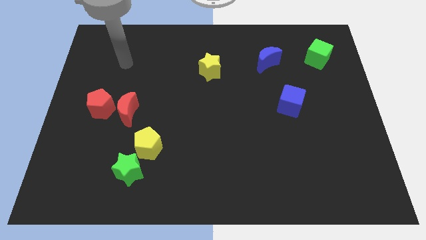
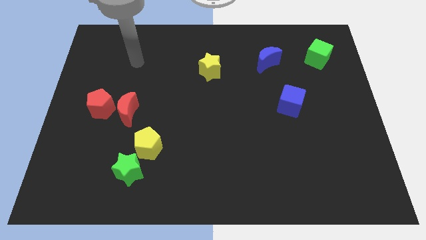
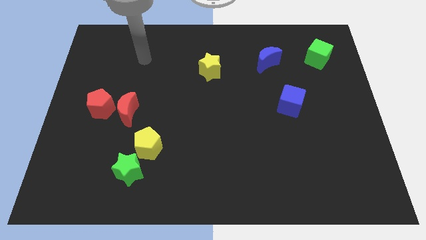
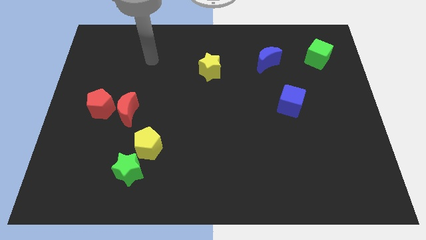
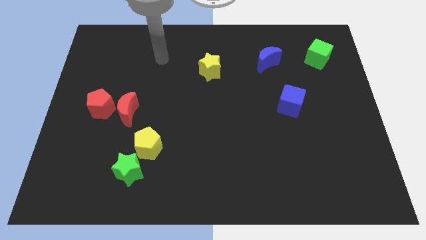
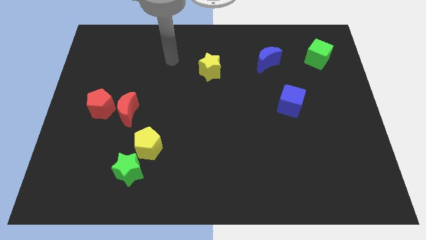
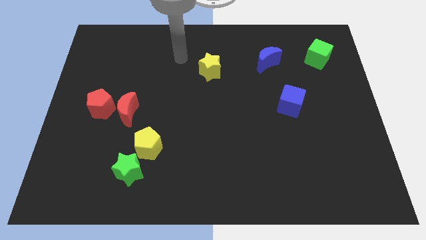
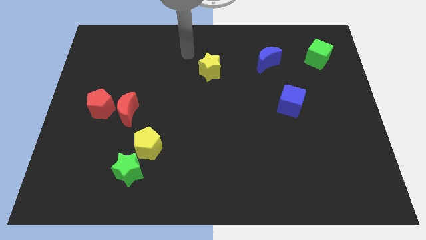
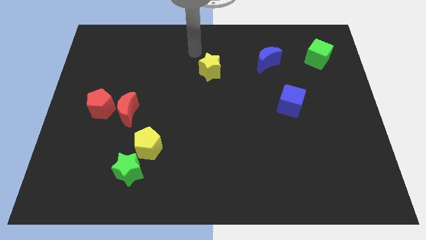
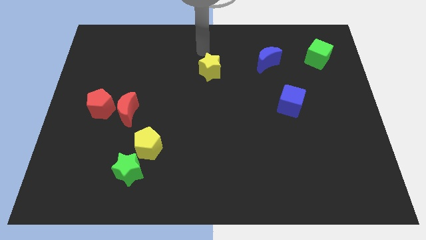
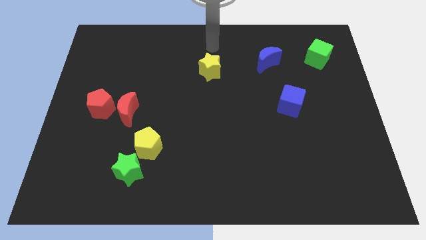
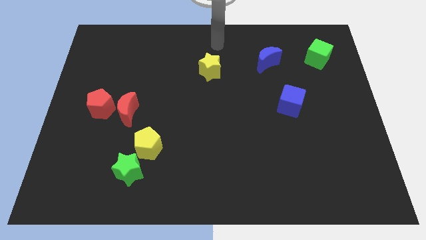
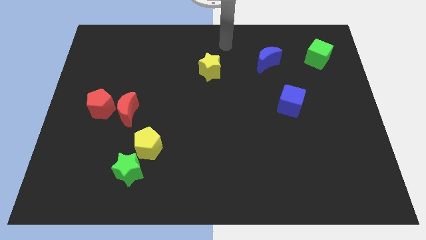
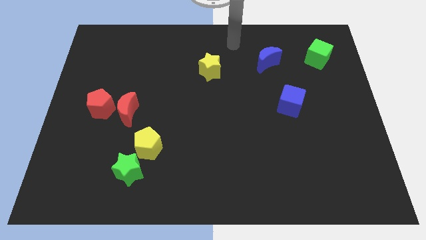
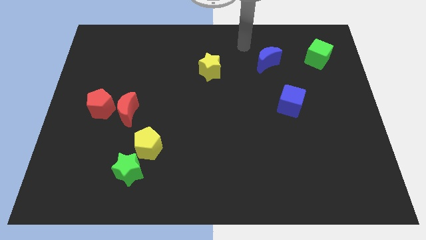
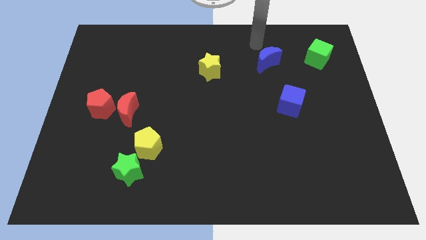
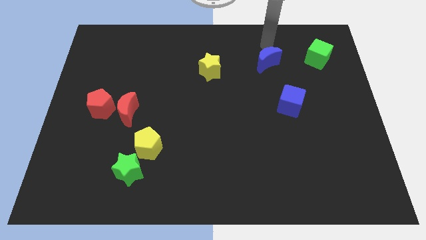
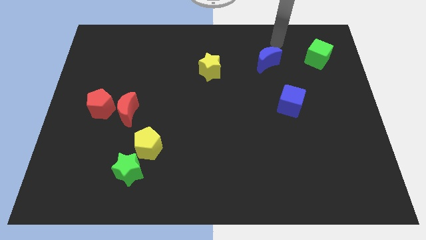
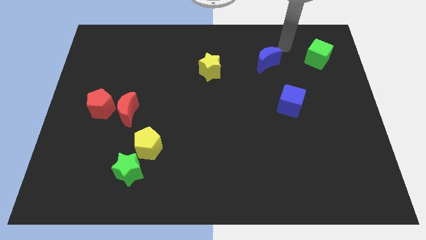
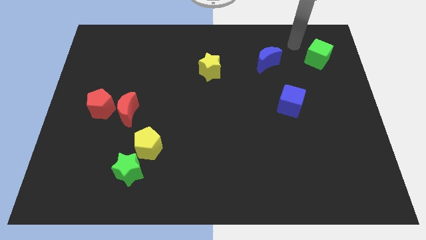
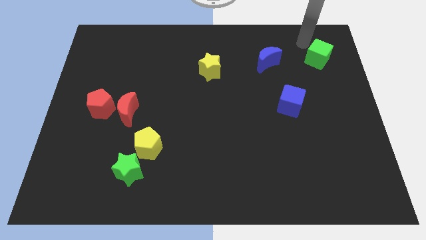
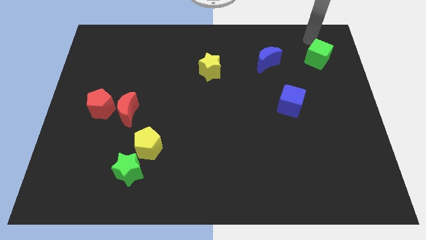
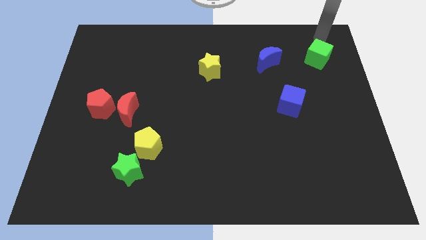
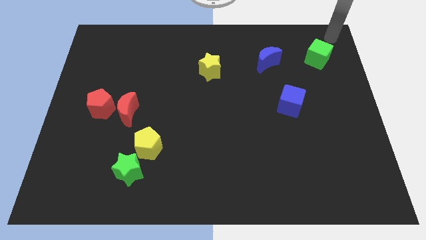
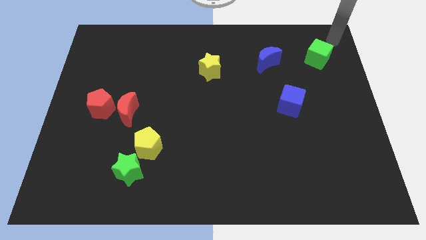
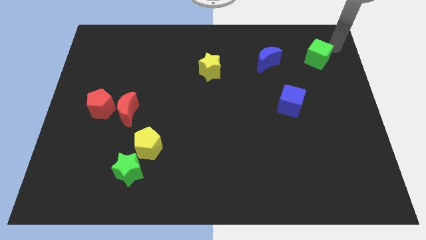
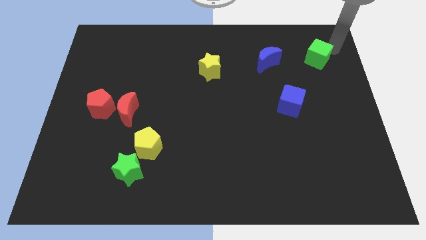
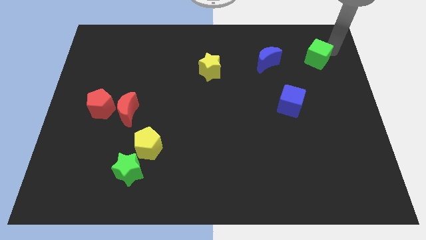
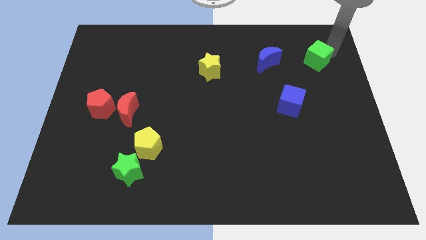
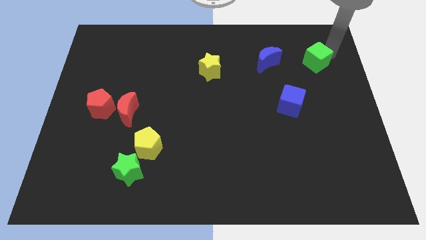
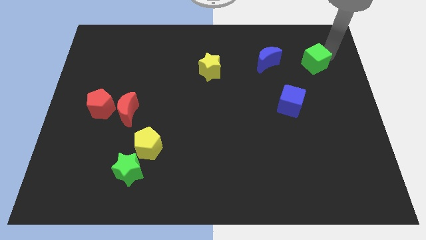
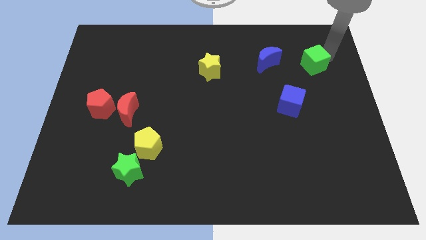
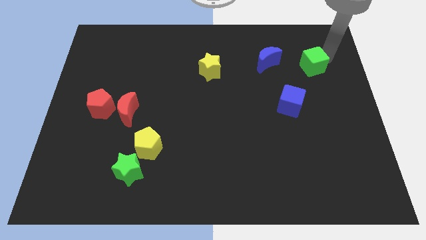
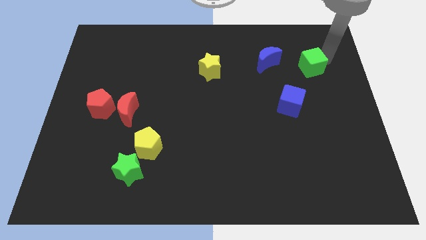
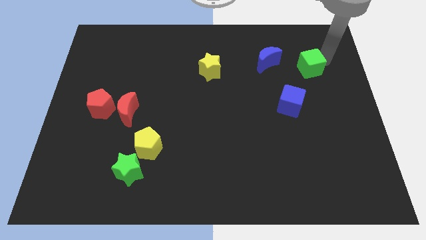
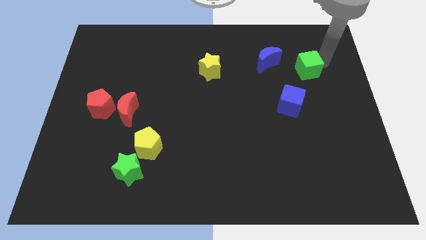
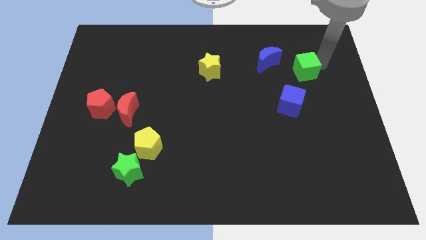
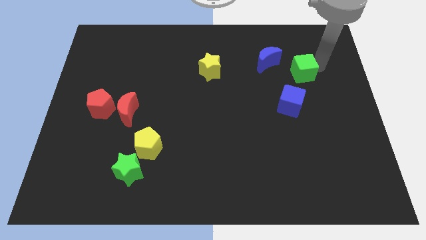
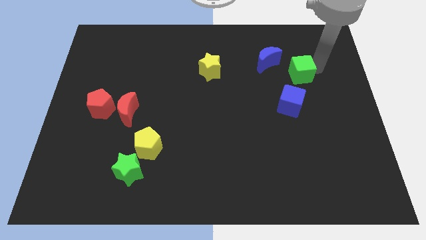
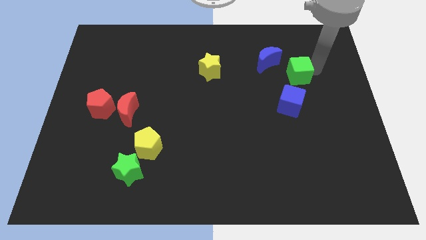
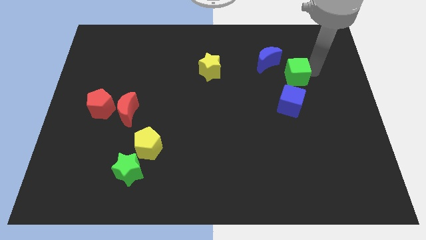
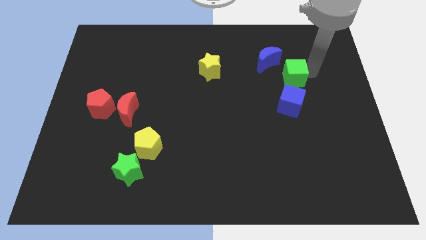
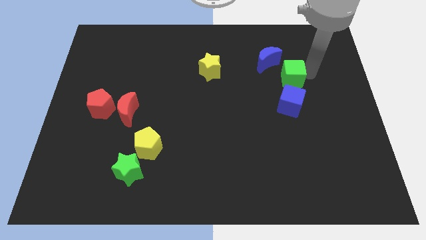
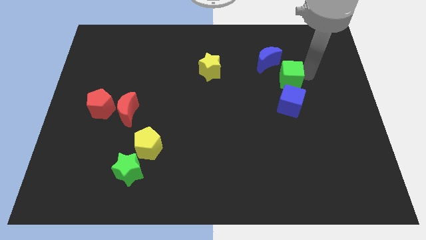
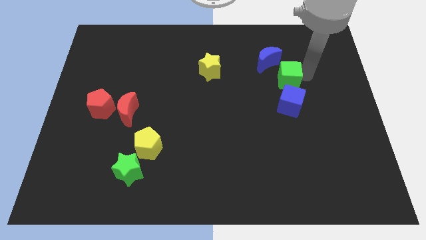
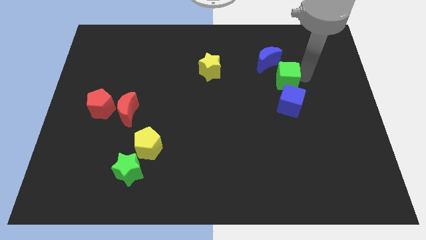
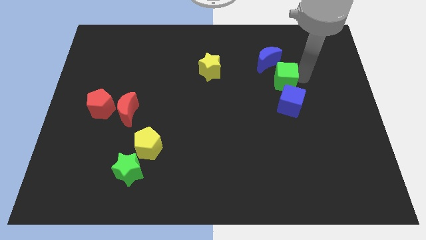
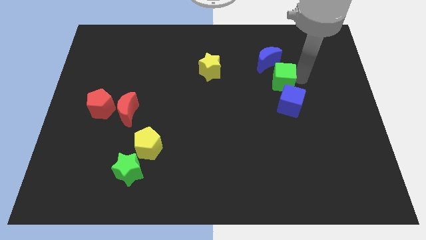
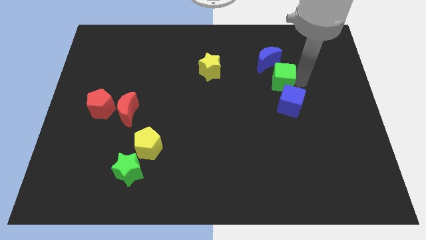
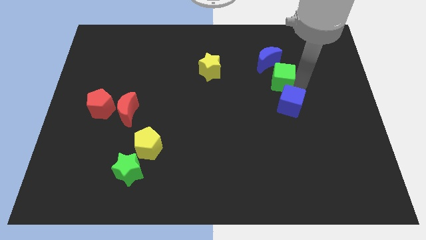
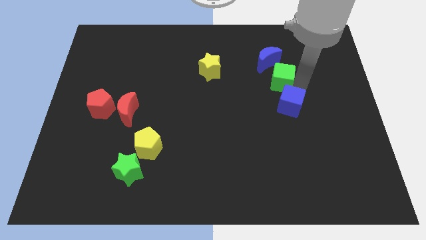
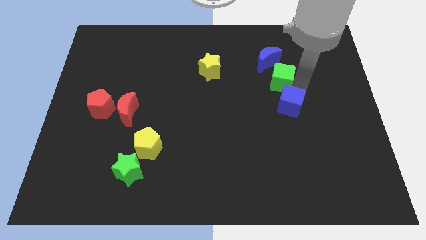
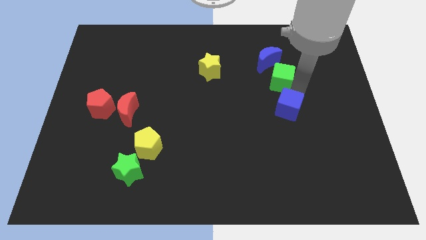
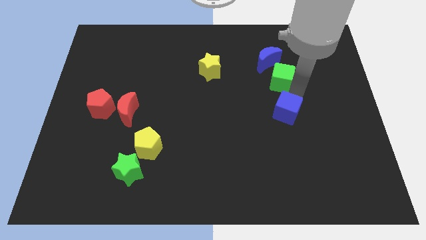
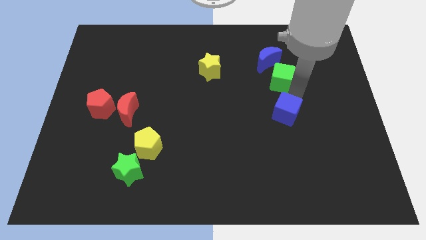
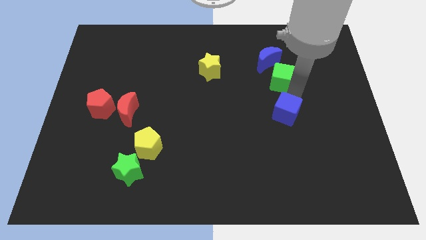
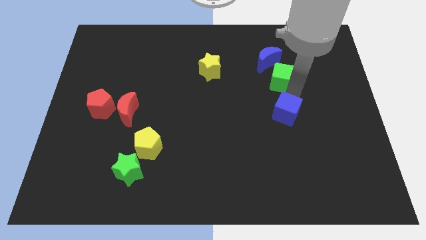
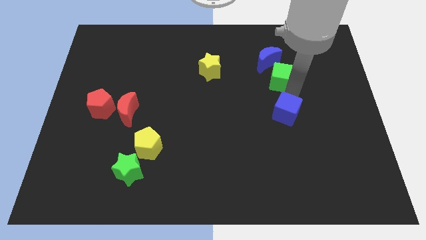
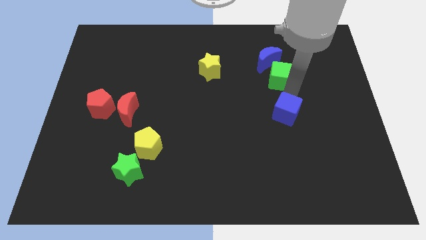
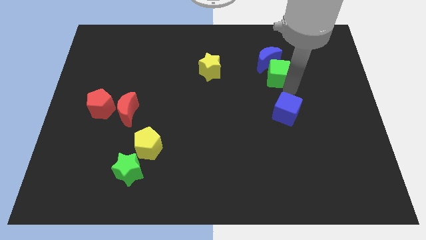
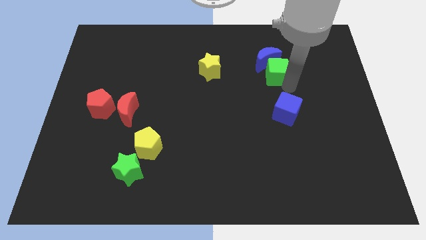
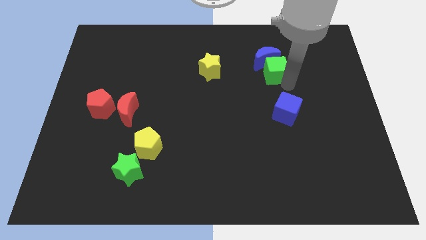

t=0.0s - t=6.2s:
put the green cube to the bottom left of the blue moon
